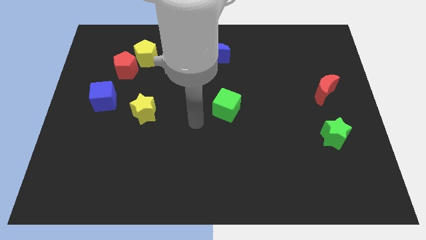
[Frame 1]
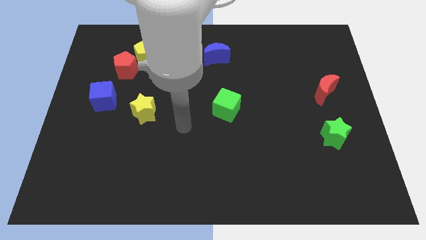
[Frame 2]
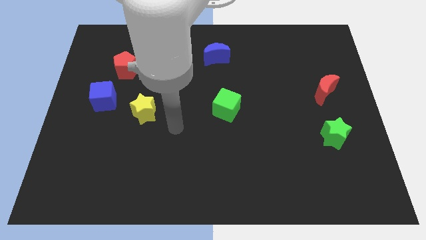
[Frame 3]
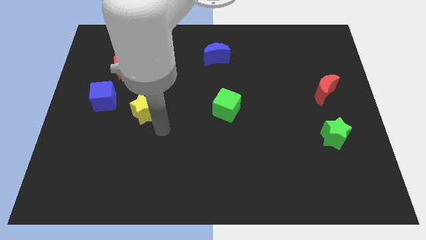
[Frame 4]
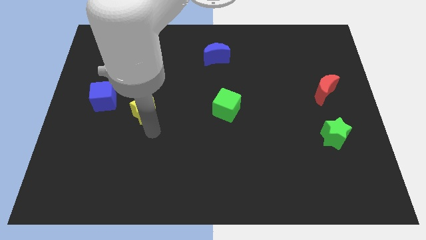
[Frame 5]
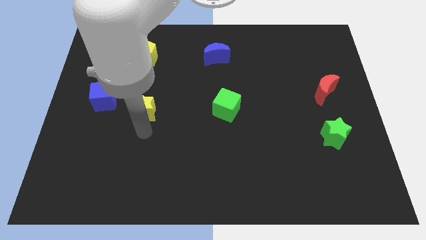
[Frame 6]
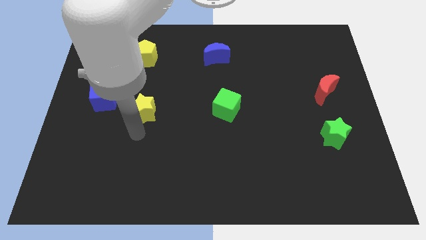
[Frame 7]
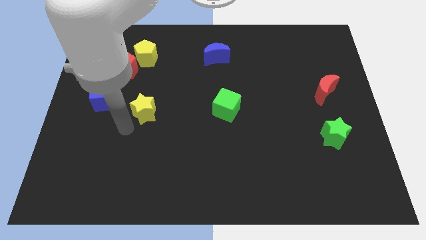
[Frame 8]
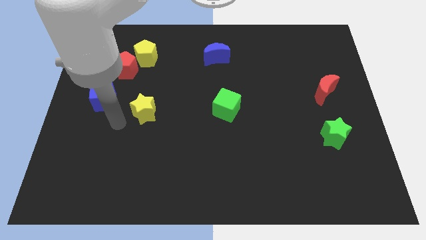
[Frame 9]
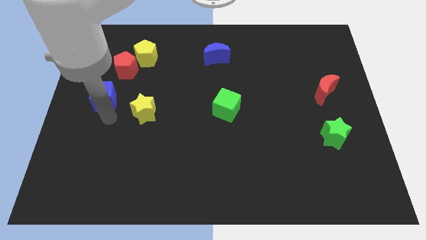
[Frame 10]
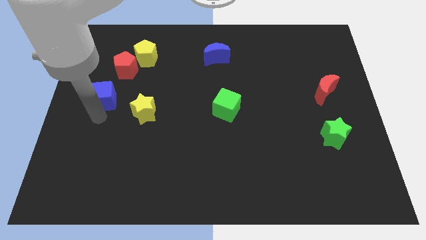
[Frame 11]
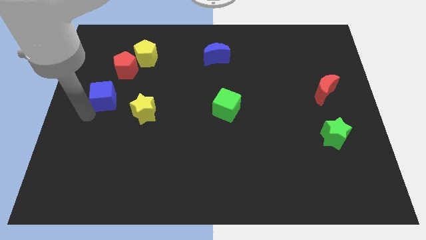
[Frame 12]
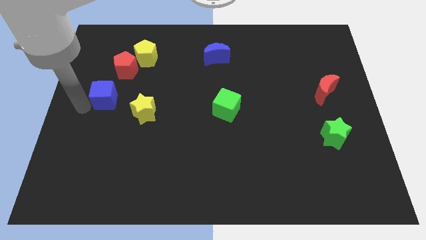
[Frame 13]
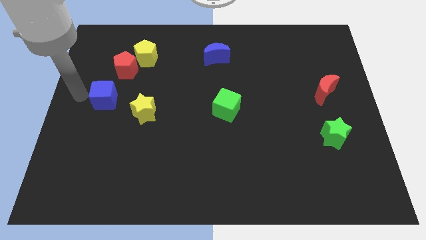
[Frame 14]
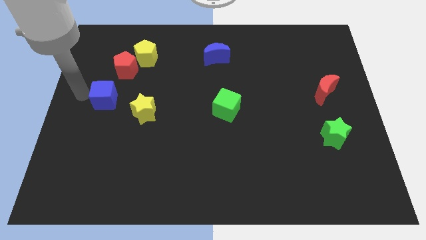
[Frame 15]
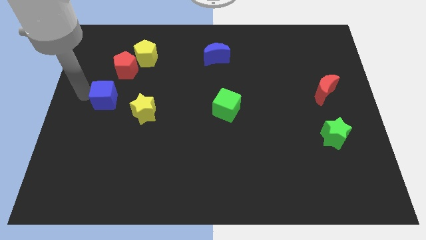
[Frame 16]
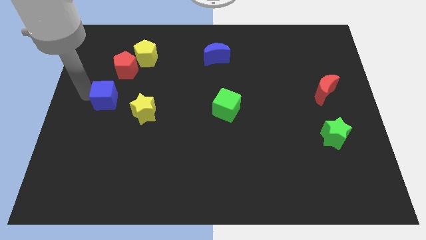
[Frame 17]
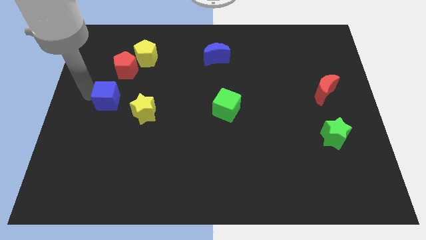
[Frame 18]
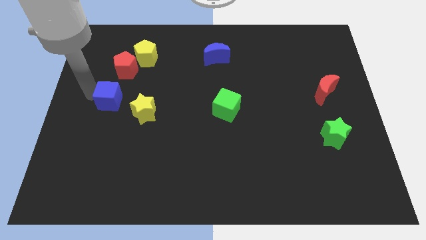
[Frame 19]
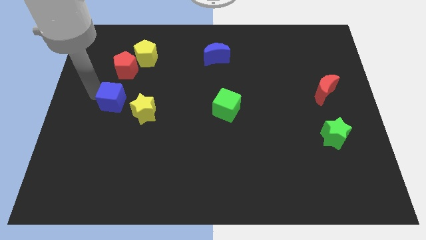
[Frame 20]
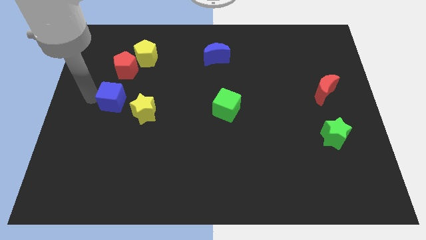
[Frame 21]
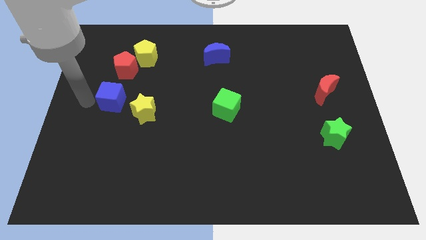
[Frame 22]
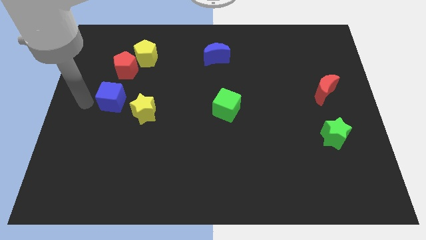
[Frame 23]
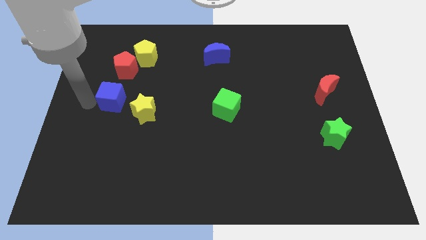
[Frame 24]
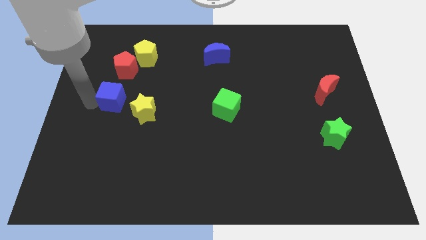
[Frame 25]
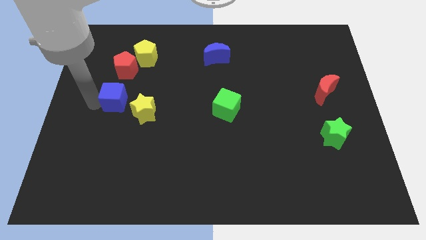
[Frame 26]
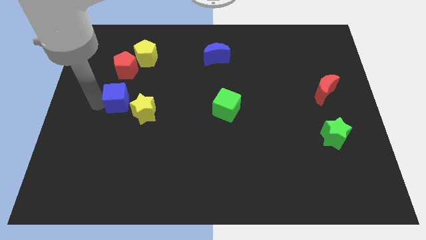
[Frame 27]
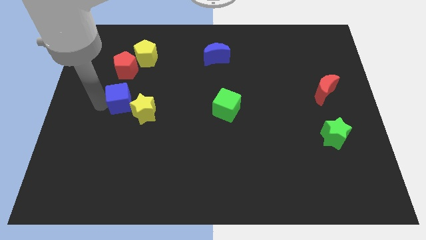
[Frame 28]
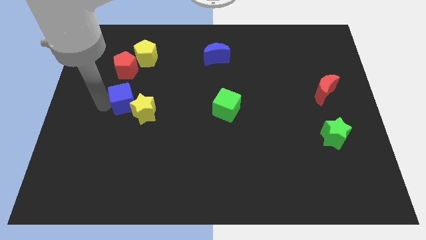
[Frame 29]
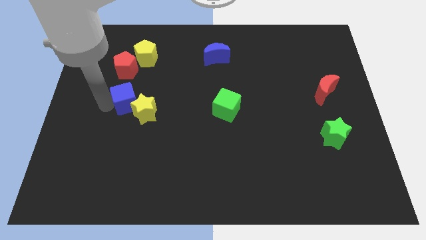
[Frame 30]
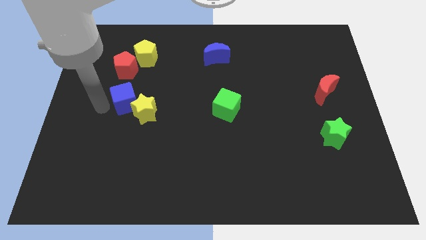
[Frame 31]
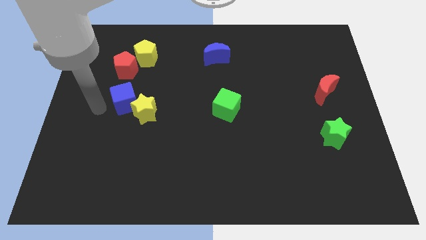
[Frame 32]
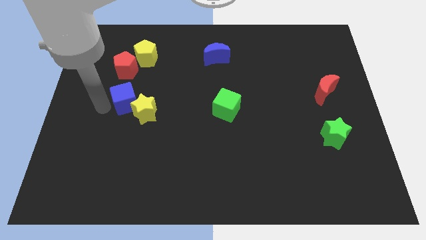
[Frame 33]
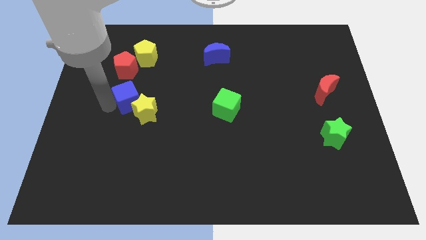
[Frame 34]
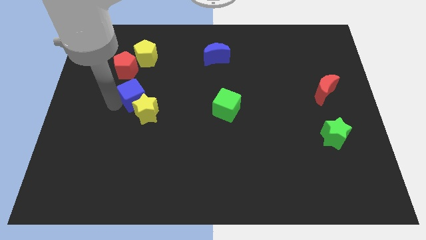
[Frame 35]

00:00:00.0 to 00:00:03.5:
slightly move the blue cube right

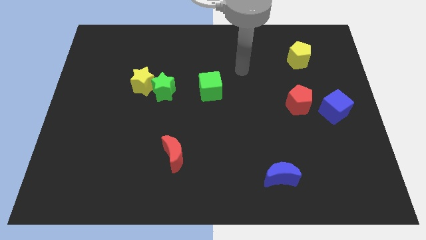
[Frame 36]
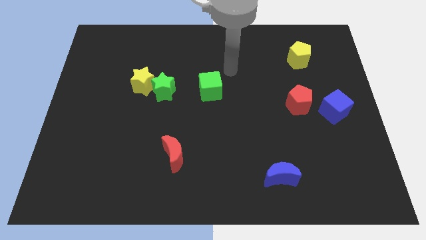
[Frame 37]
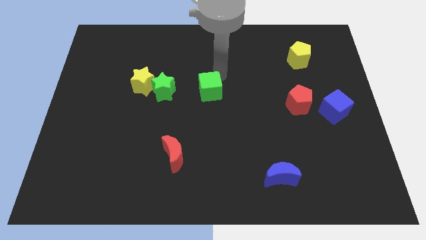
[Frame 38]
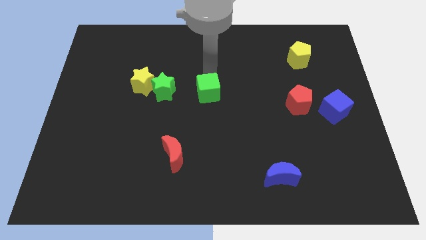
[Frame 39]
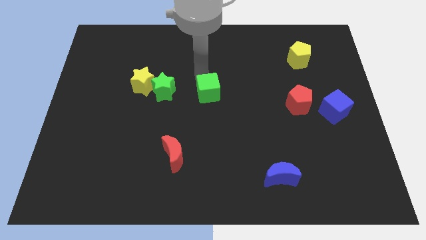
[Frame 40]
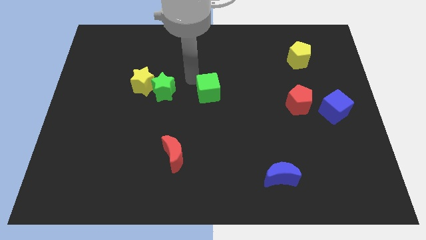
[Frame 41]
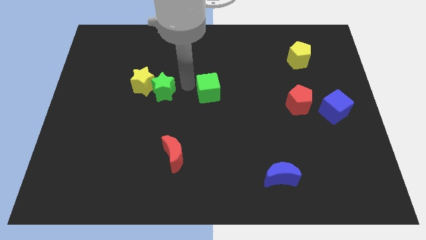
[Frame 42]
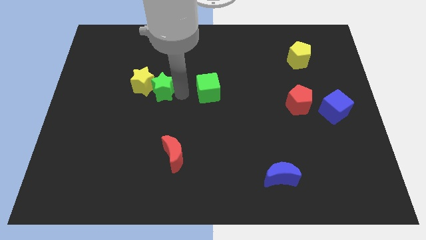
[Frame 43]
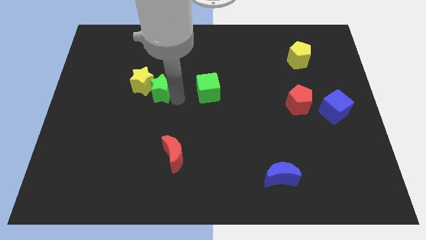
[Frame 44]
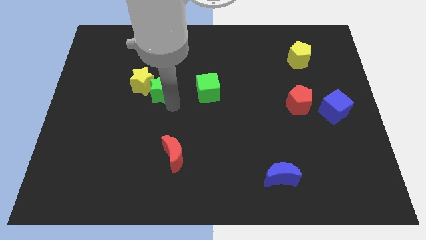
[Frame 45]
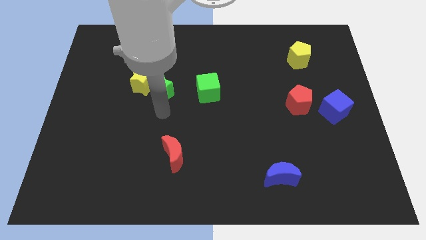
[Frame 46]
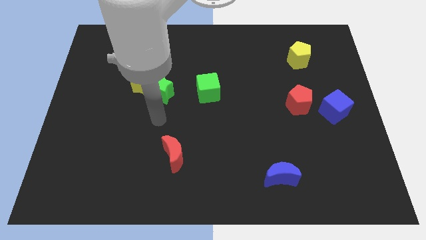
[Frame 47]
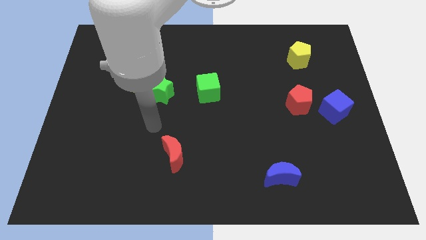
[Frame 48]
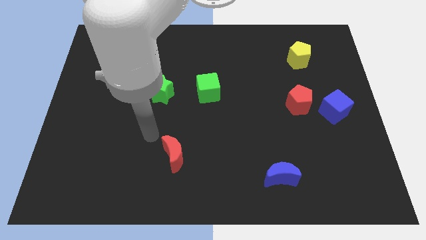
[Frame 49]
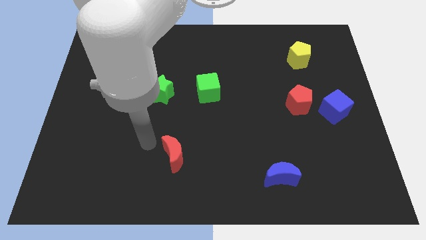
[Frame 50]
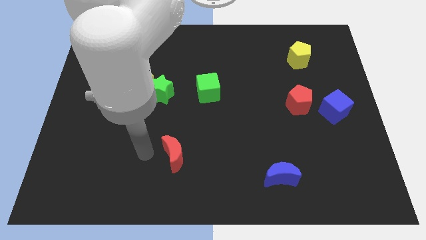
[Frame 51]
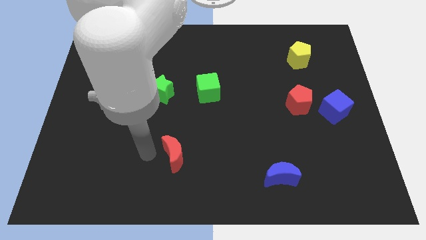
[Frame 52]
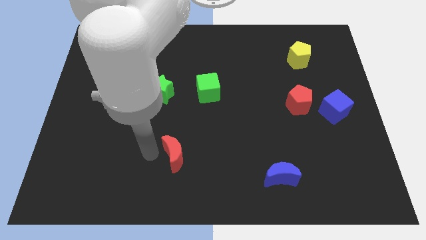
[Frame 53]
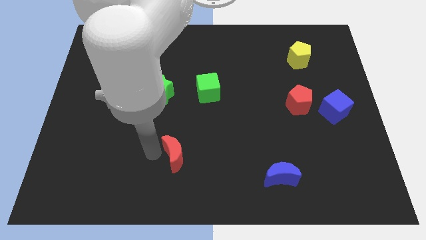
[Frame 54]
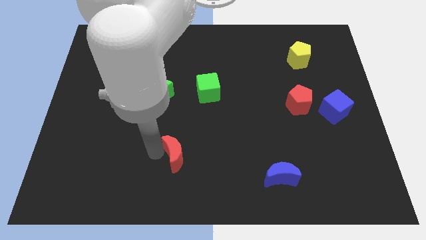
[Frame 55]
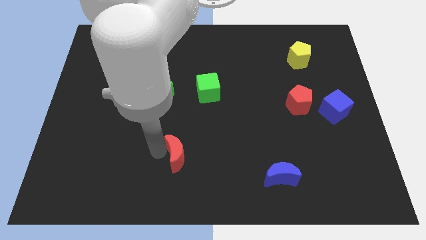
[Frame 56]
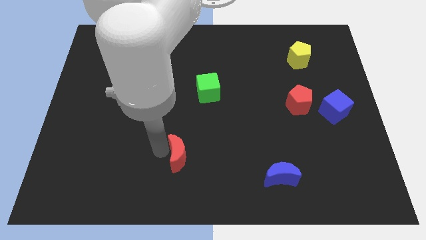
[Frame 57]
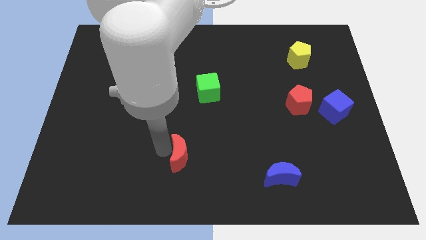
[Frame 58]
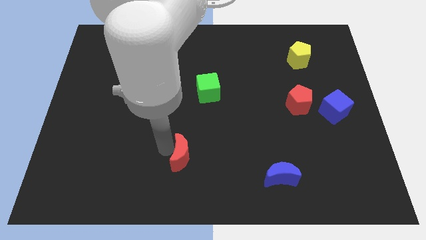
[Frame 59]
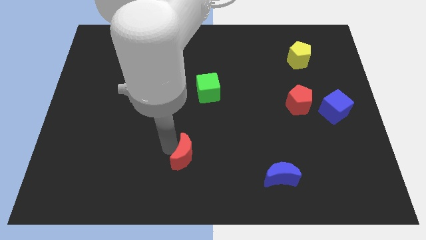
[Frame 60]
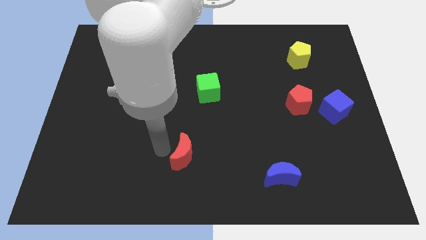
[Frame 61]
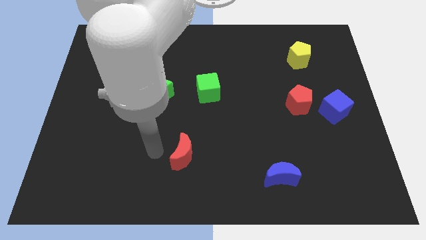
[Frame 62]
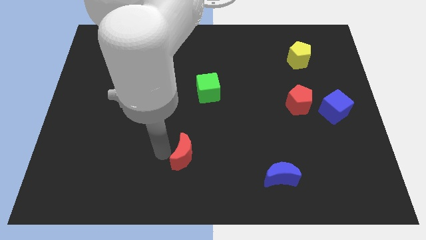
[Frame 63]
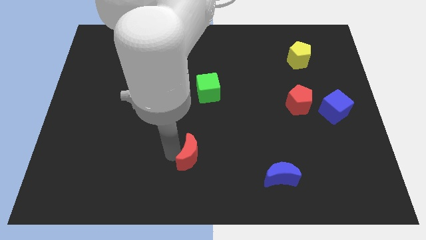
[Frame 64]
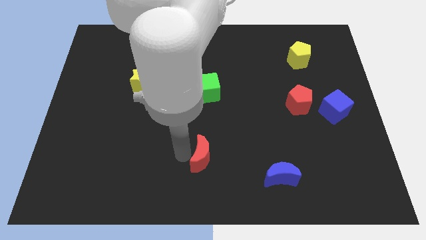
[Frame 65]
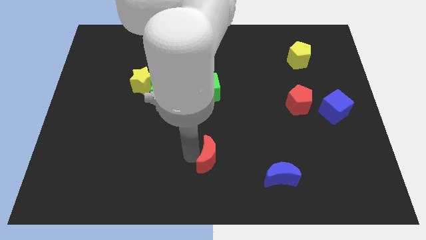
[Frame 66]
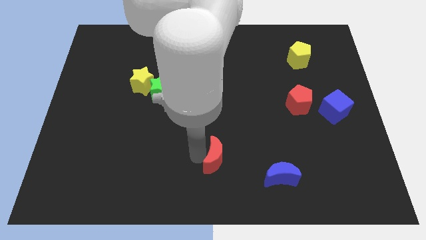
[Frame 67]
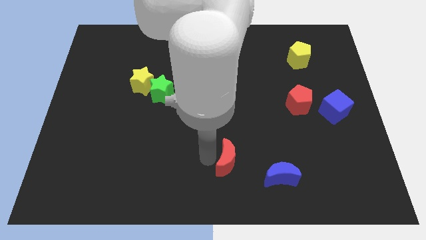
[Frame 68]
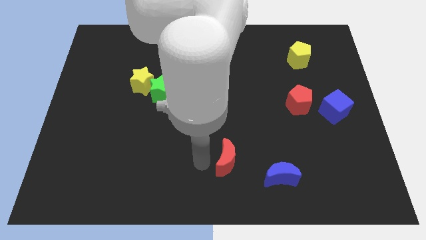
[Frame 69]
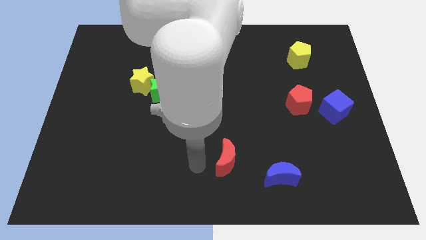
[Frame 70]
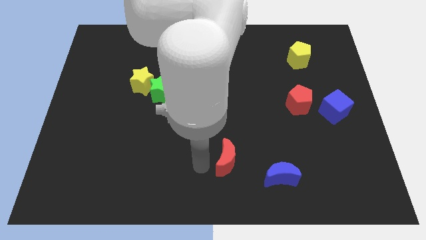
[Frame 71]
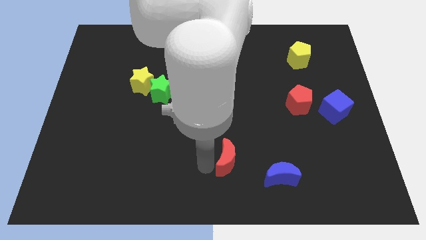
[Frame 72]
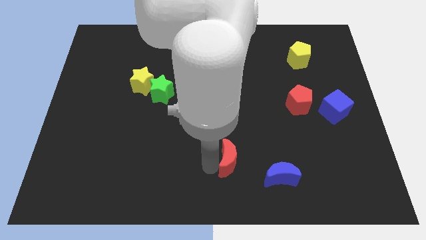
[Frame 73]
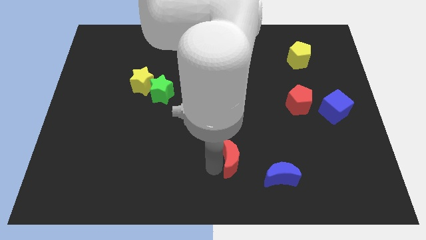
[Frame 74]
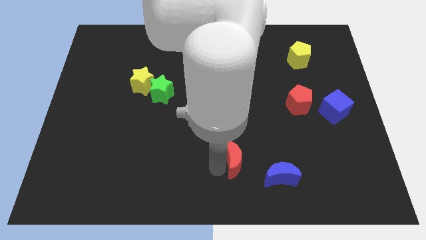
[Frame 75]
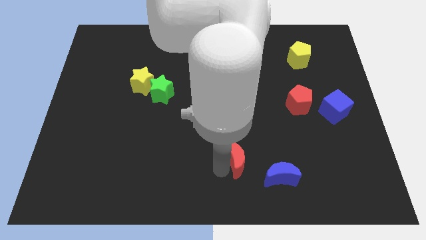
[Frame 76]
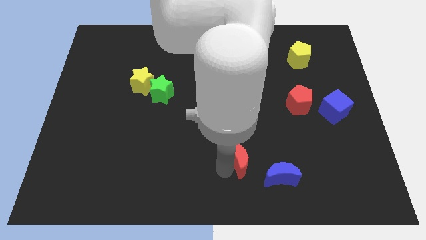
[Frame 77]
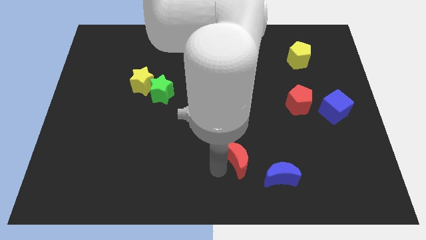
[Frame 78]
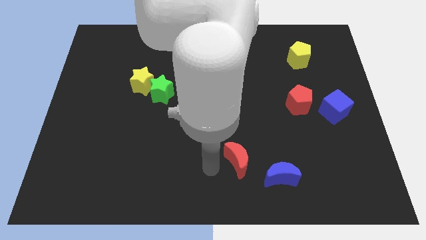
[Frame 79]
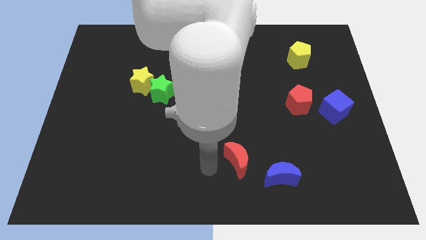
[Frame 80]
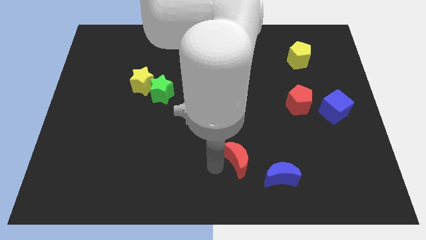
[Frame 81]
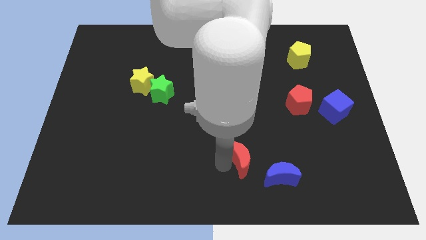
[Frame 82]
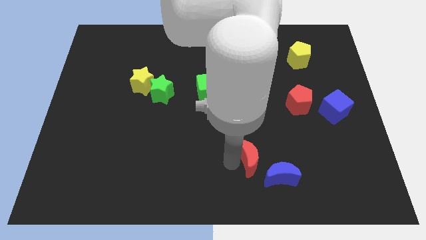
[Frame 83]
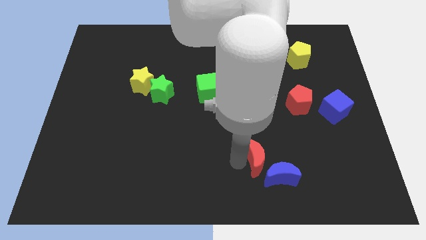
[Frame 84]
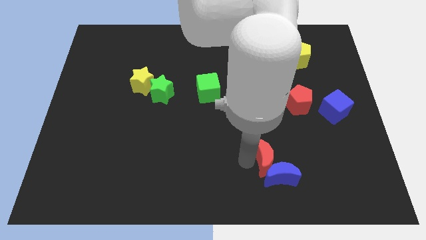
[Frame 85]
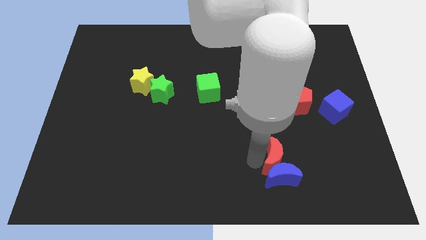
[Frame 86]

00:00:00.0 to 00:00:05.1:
slide the red moon right
